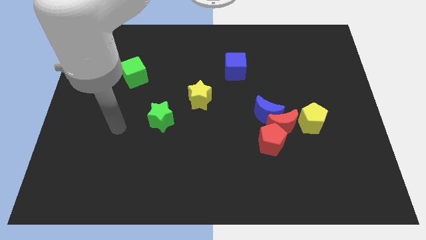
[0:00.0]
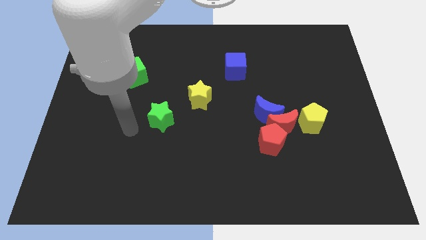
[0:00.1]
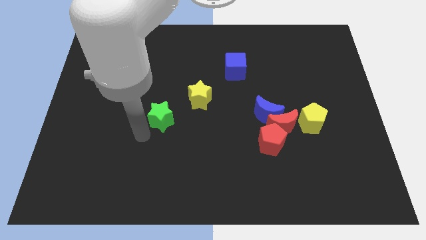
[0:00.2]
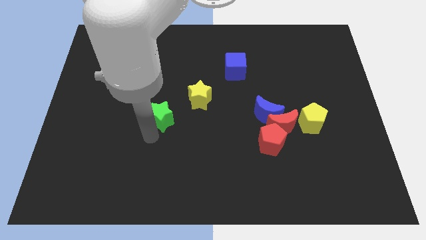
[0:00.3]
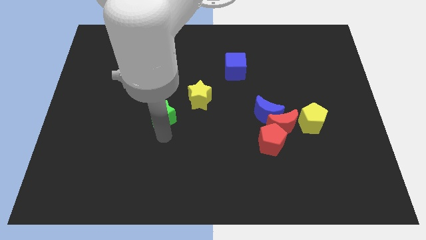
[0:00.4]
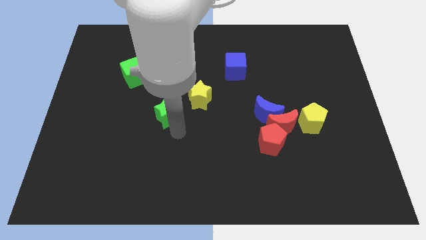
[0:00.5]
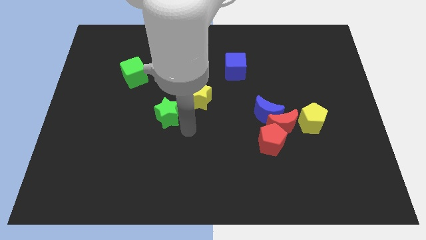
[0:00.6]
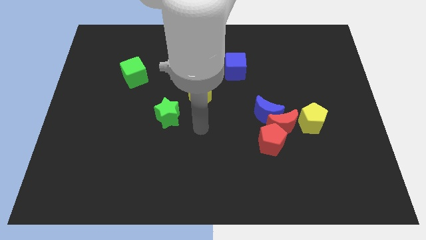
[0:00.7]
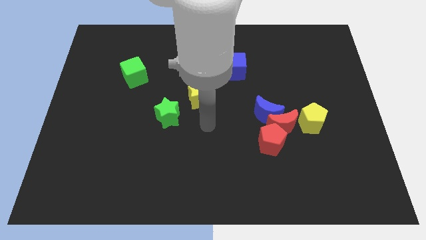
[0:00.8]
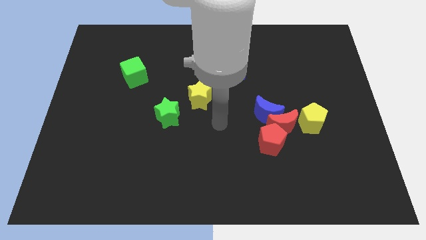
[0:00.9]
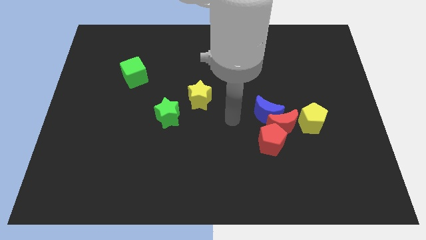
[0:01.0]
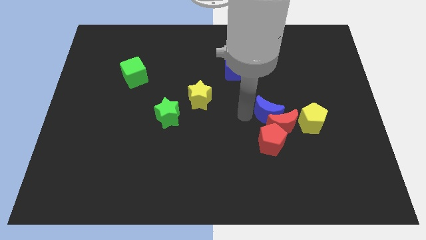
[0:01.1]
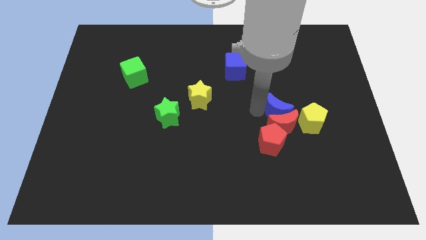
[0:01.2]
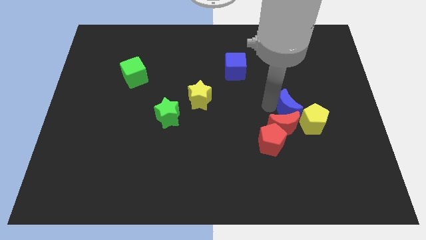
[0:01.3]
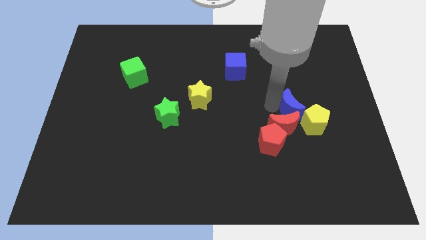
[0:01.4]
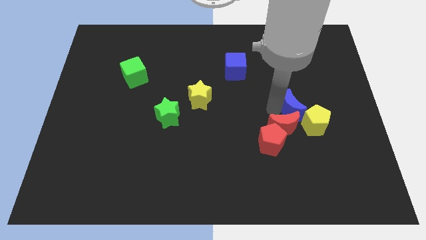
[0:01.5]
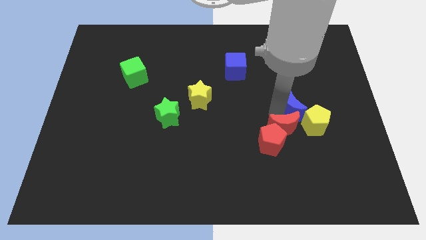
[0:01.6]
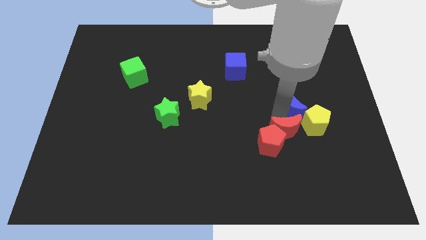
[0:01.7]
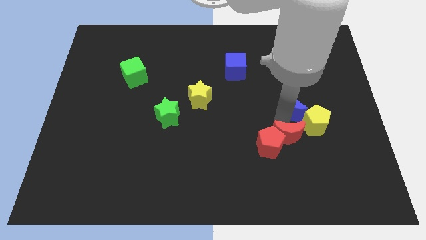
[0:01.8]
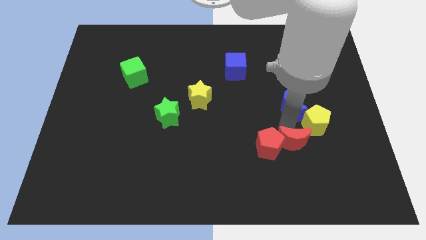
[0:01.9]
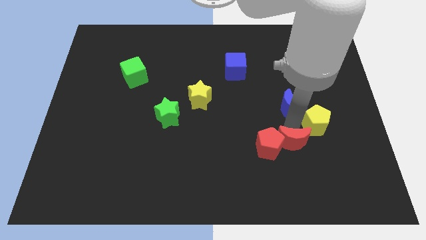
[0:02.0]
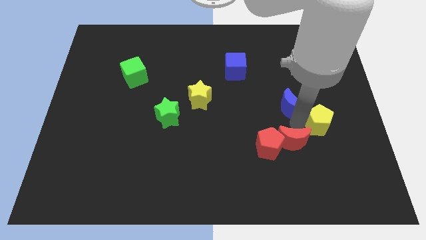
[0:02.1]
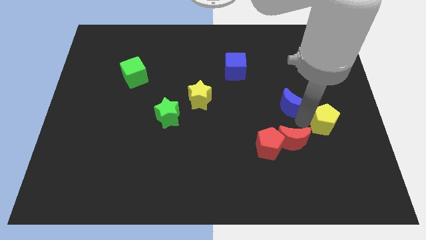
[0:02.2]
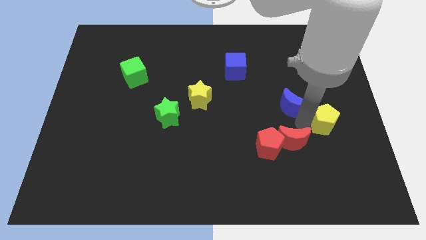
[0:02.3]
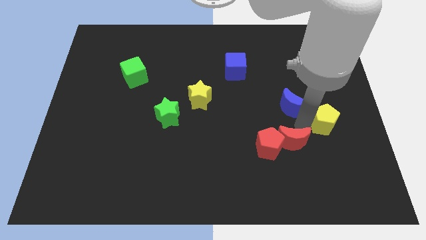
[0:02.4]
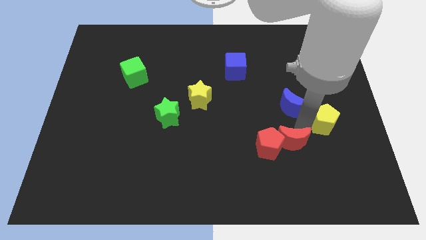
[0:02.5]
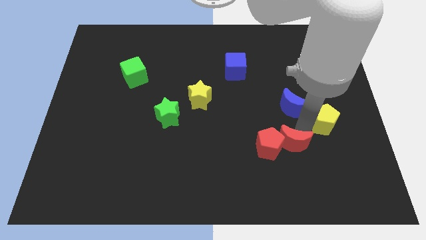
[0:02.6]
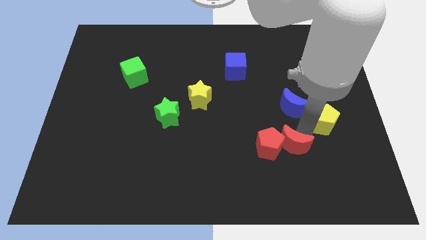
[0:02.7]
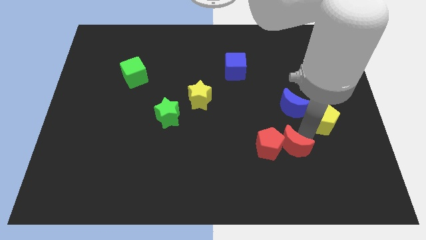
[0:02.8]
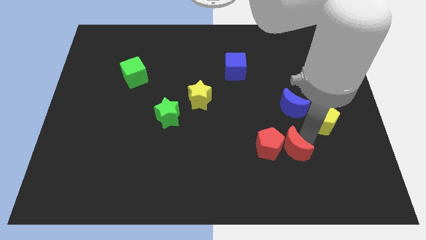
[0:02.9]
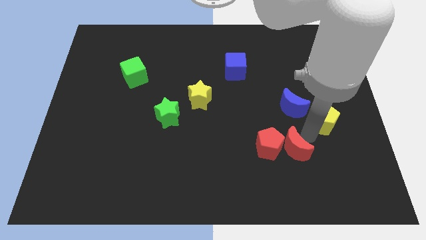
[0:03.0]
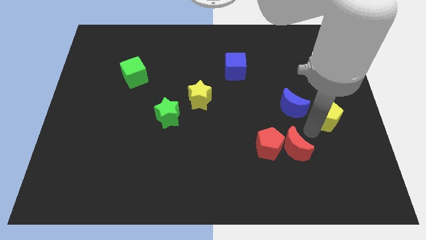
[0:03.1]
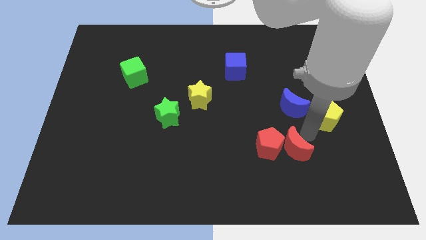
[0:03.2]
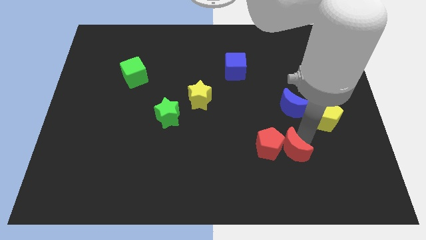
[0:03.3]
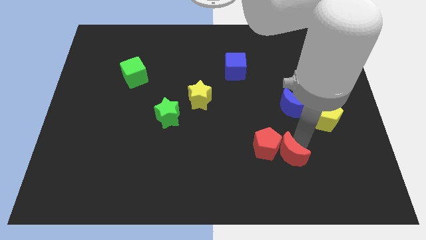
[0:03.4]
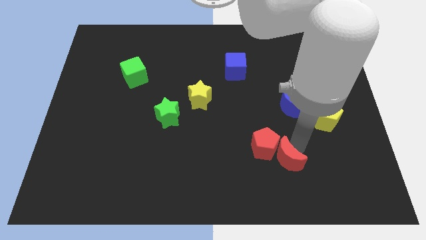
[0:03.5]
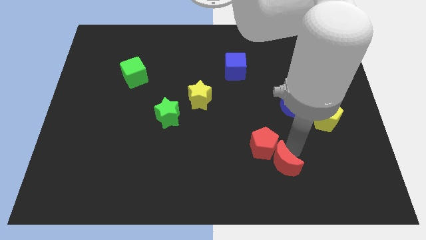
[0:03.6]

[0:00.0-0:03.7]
move the red moon away from the blue moon, red pentagon, and yellow pentagon

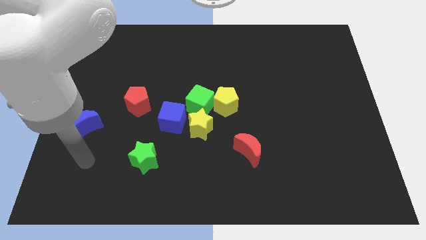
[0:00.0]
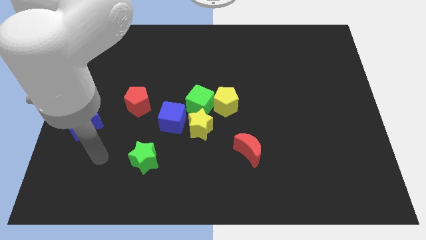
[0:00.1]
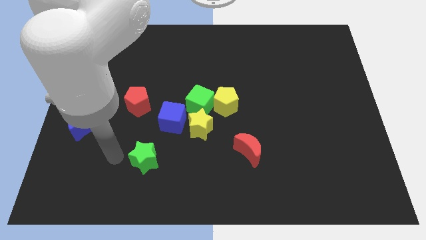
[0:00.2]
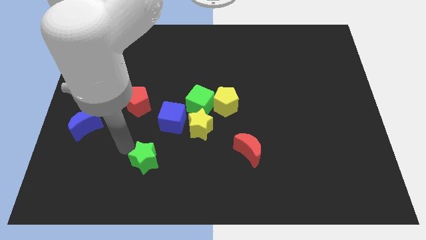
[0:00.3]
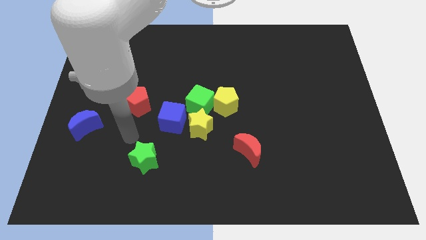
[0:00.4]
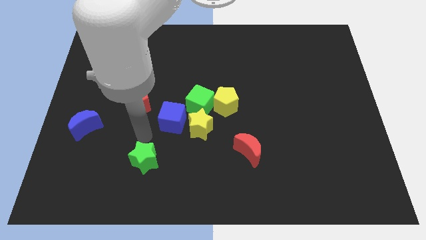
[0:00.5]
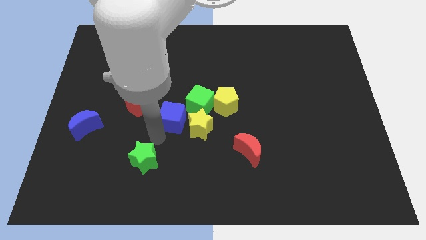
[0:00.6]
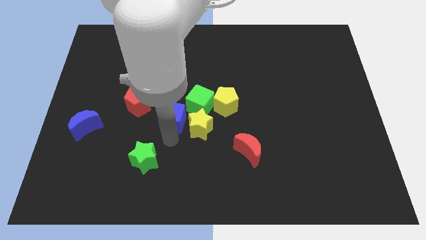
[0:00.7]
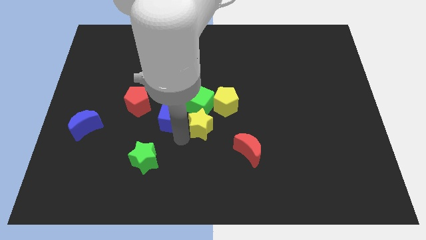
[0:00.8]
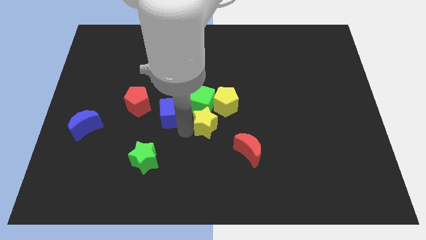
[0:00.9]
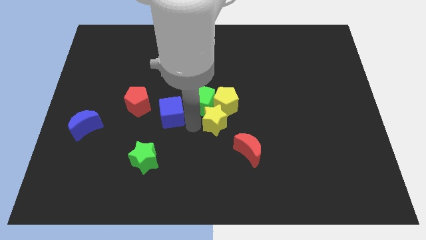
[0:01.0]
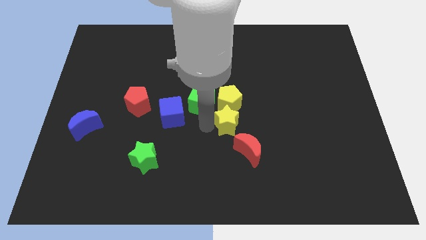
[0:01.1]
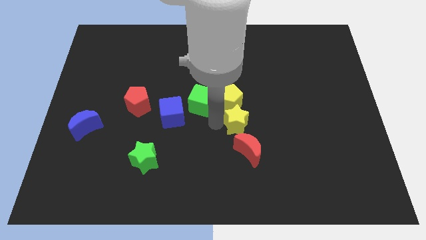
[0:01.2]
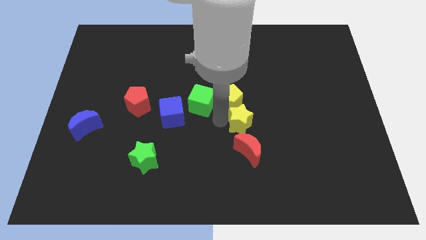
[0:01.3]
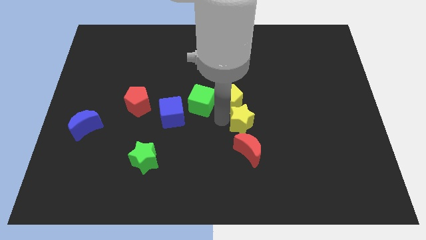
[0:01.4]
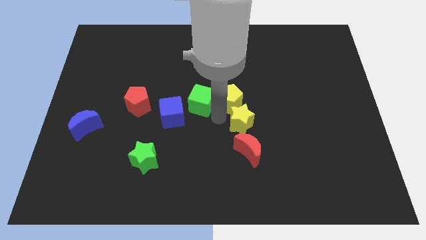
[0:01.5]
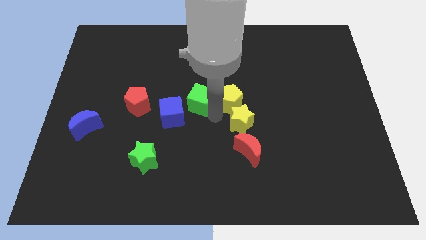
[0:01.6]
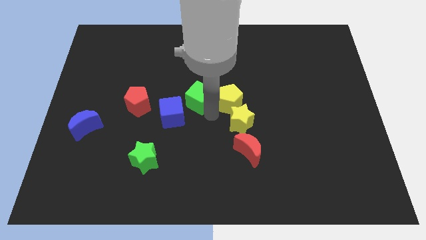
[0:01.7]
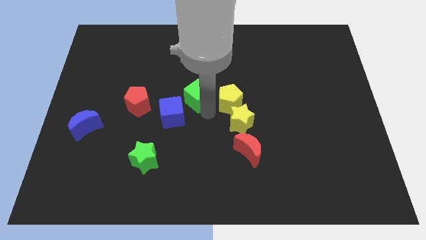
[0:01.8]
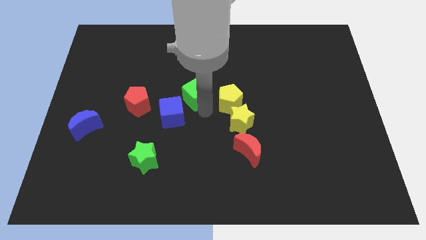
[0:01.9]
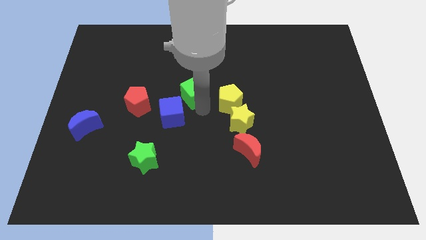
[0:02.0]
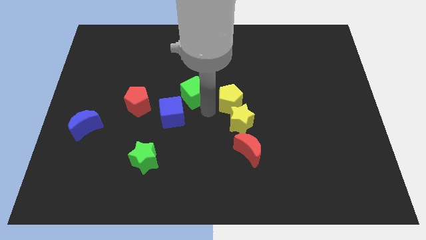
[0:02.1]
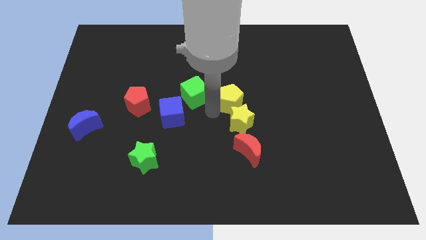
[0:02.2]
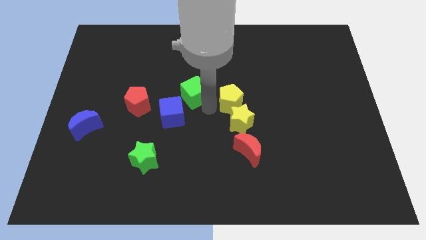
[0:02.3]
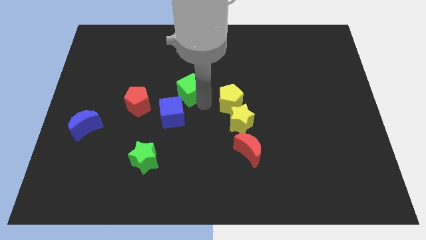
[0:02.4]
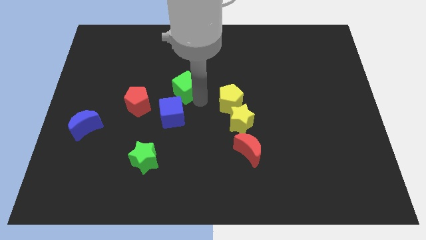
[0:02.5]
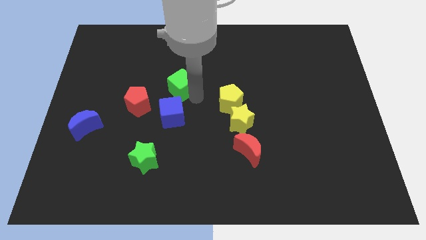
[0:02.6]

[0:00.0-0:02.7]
separate the green cube from the yellow pentagon, yellow star, and blue cube

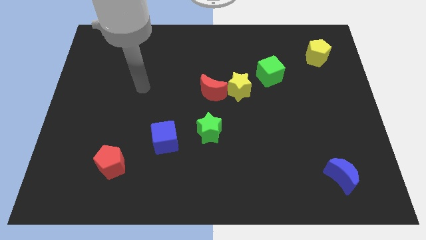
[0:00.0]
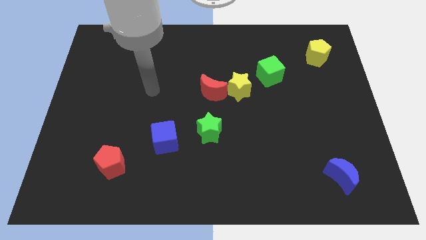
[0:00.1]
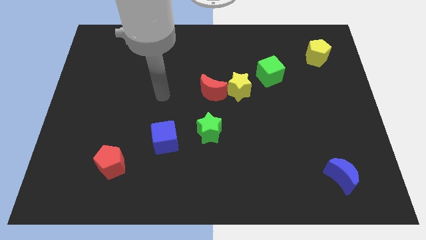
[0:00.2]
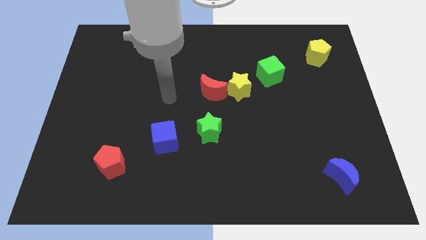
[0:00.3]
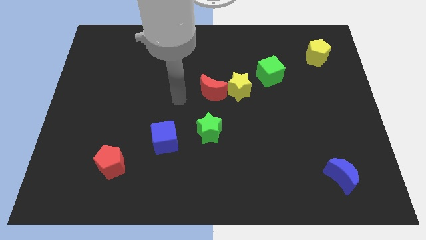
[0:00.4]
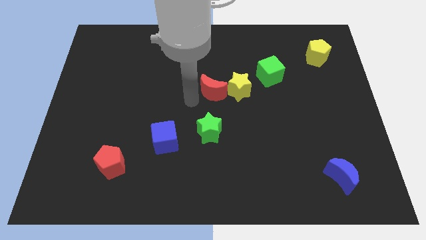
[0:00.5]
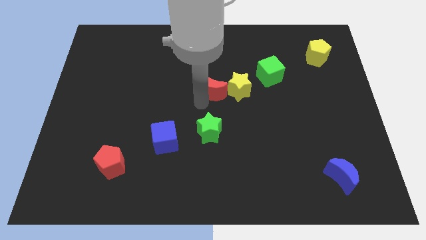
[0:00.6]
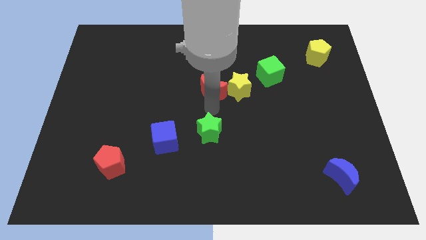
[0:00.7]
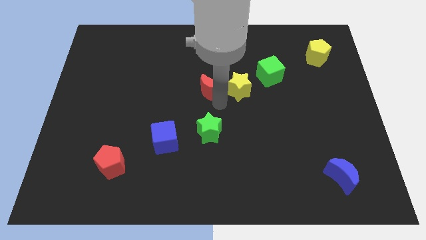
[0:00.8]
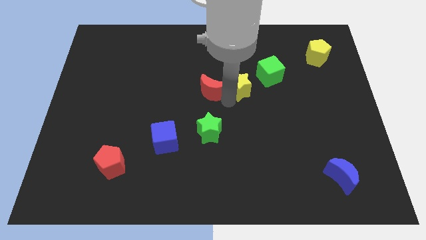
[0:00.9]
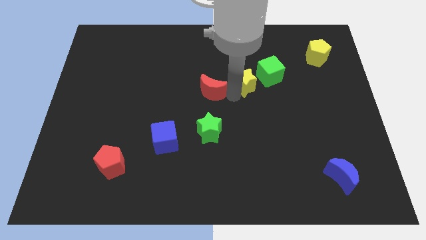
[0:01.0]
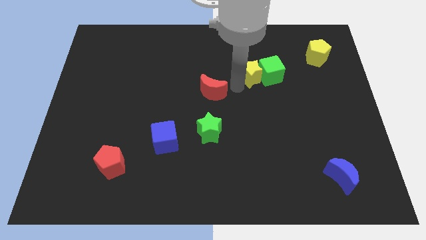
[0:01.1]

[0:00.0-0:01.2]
separate the red moon from the yellow star

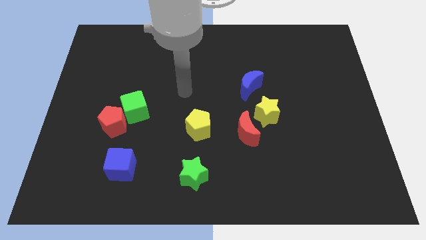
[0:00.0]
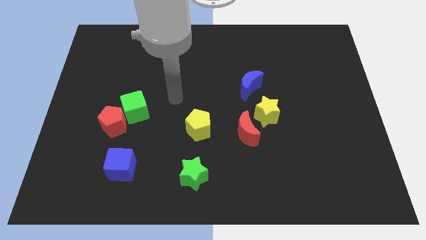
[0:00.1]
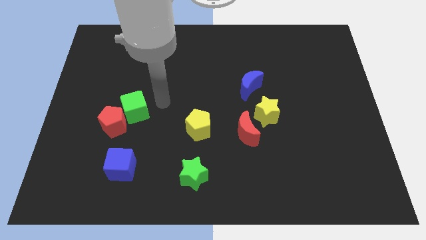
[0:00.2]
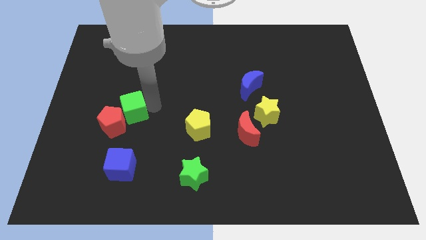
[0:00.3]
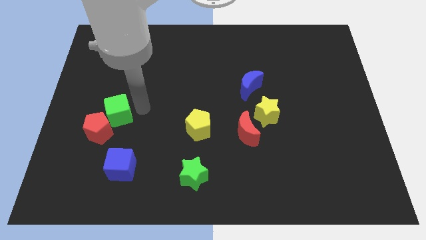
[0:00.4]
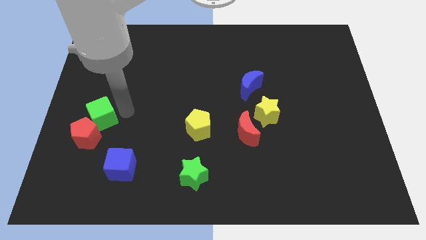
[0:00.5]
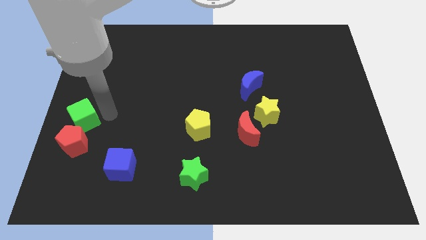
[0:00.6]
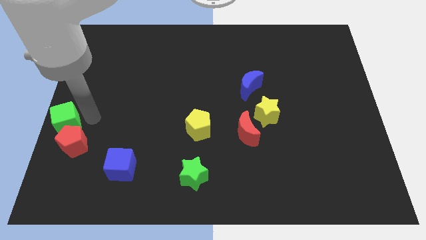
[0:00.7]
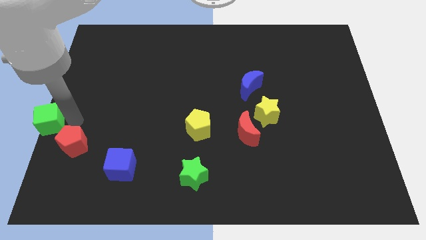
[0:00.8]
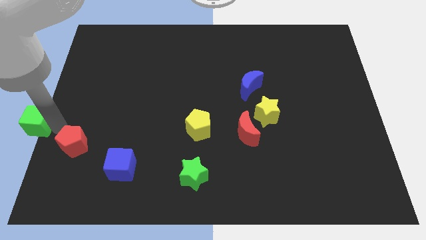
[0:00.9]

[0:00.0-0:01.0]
move the red pentagon away from the green cube

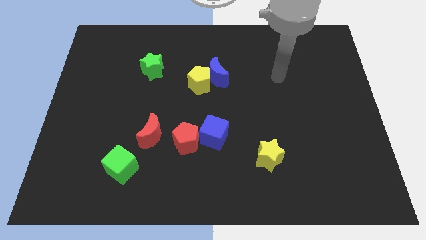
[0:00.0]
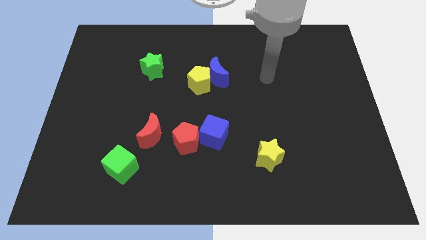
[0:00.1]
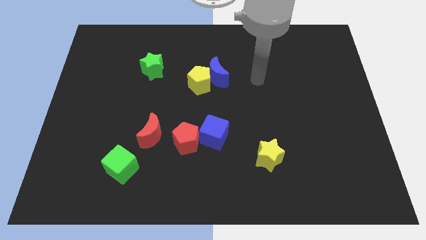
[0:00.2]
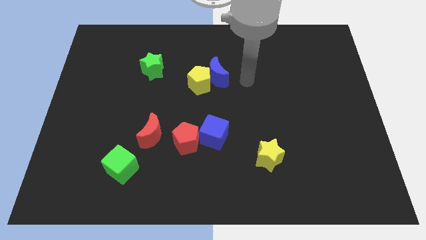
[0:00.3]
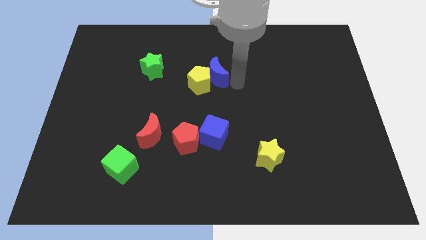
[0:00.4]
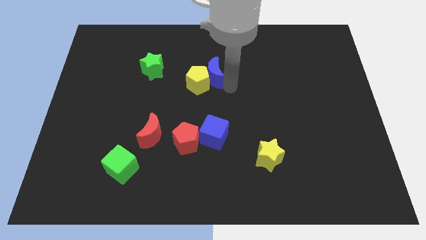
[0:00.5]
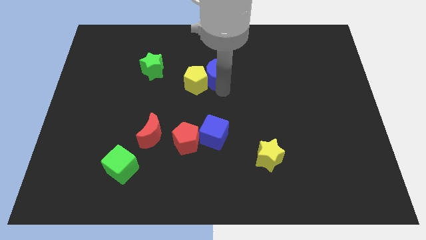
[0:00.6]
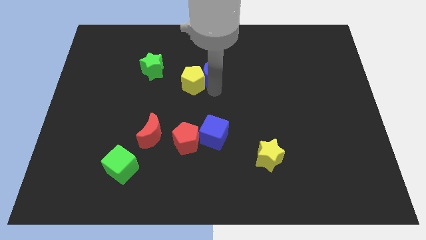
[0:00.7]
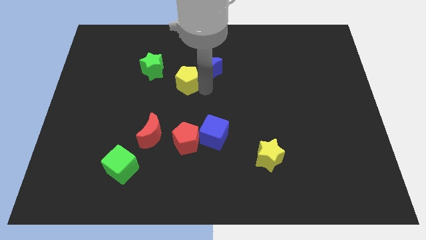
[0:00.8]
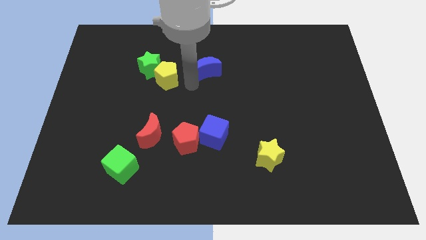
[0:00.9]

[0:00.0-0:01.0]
separate the blue moon from the yellow pentagon
